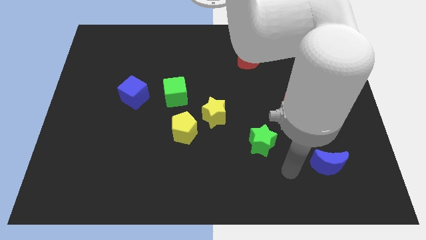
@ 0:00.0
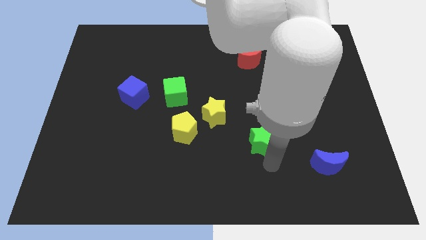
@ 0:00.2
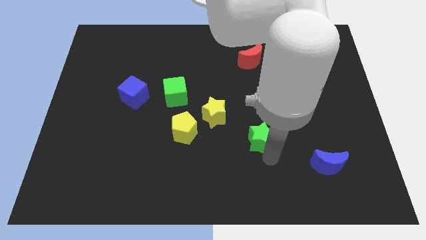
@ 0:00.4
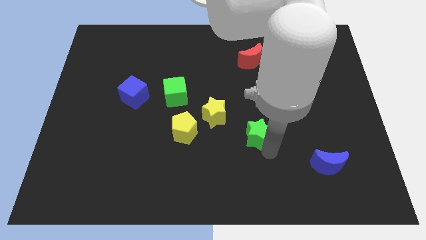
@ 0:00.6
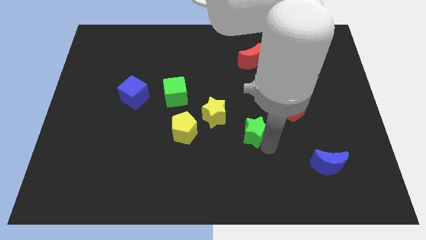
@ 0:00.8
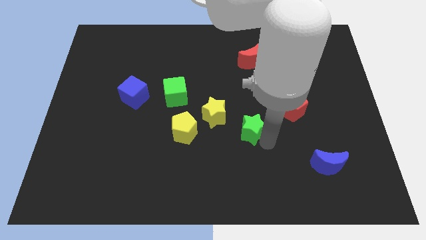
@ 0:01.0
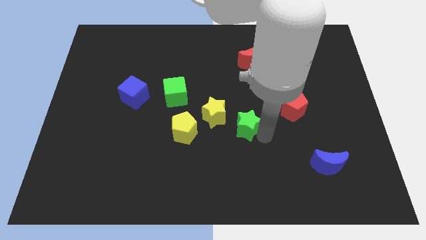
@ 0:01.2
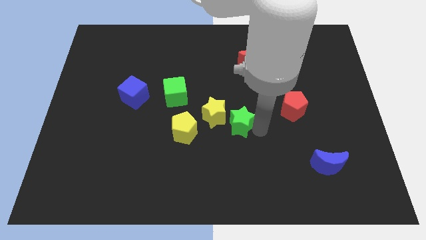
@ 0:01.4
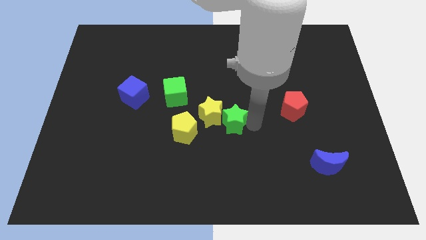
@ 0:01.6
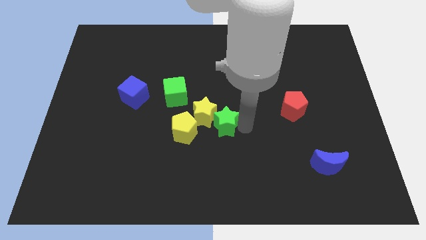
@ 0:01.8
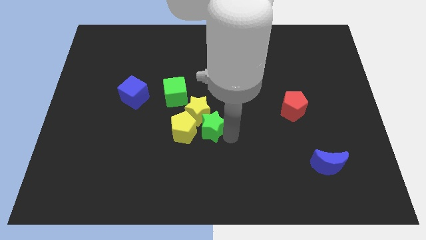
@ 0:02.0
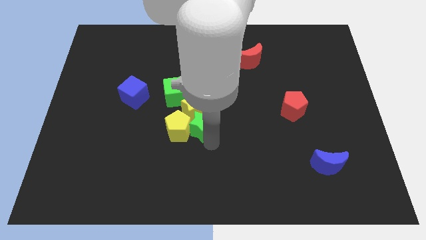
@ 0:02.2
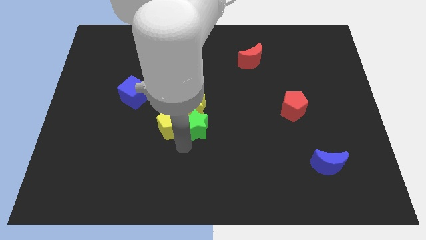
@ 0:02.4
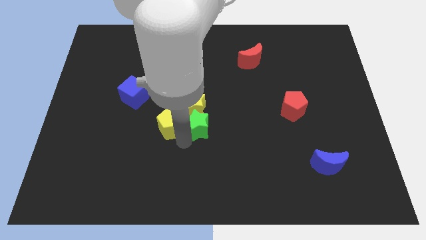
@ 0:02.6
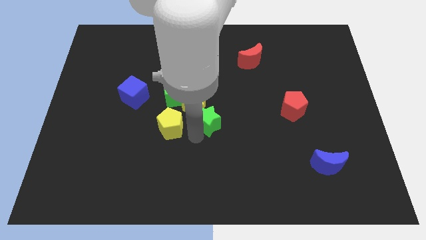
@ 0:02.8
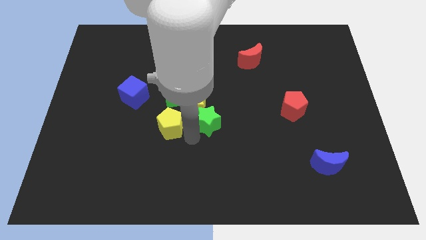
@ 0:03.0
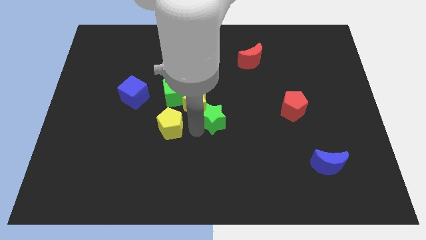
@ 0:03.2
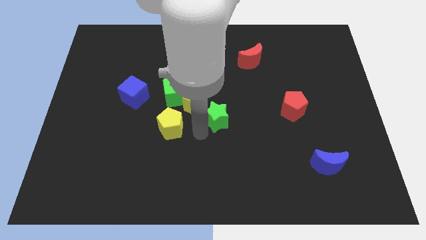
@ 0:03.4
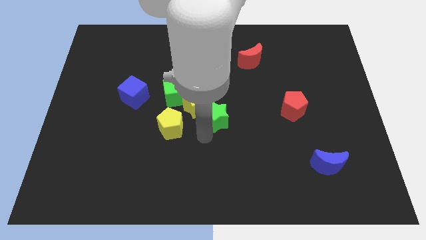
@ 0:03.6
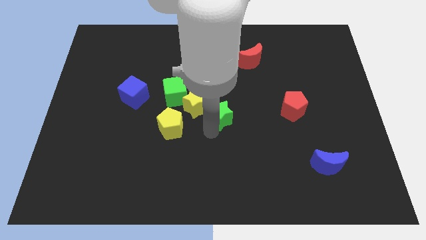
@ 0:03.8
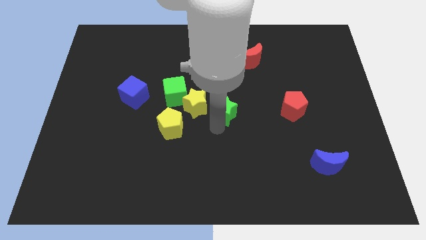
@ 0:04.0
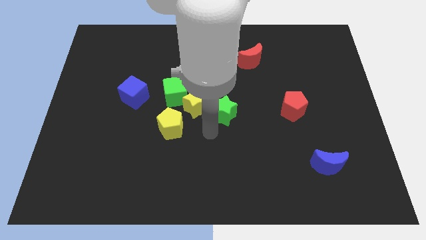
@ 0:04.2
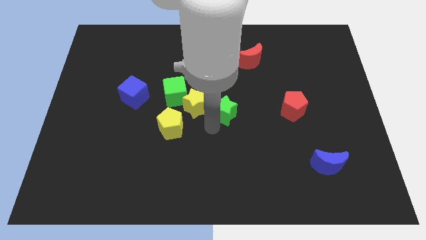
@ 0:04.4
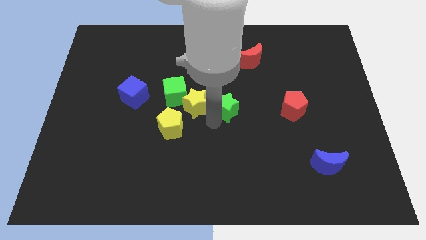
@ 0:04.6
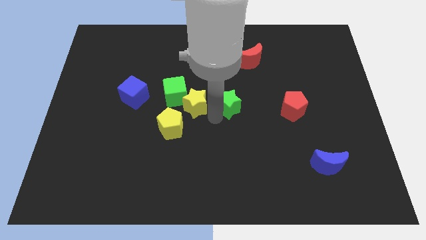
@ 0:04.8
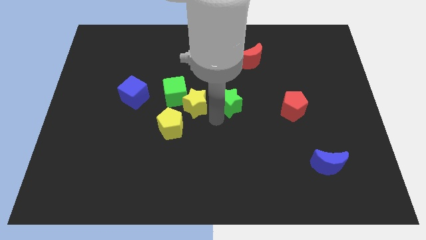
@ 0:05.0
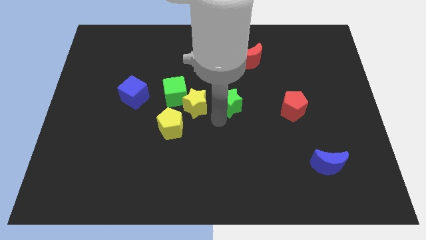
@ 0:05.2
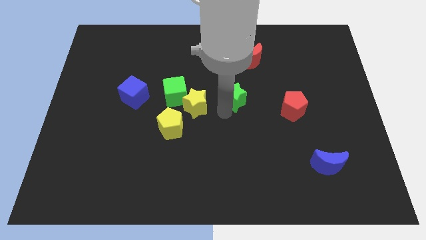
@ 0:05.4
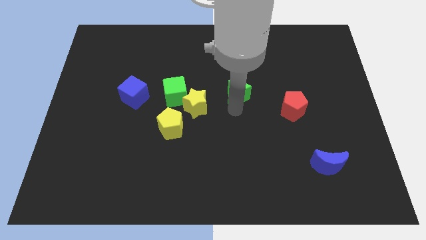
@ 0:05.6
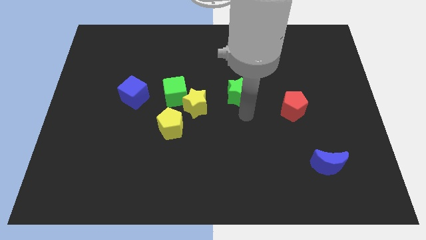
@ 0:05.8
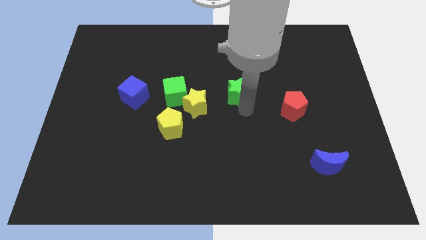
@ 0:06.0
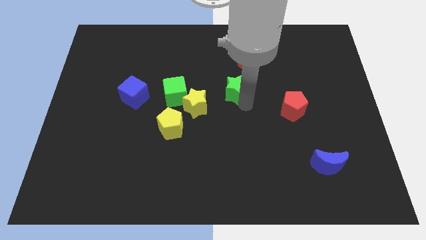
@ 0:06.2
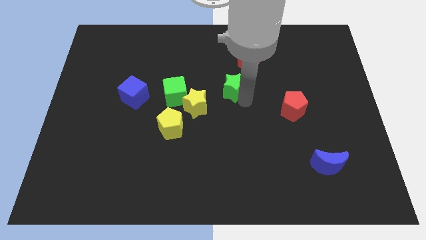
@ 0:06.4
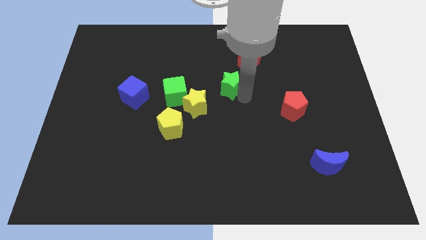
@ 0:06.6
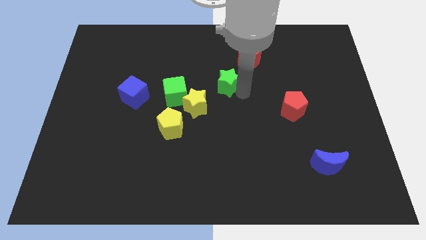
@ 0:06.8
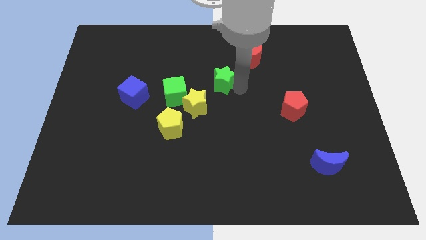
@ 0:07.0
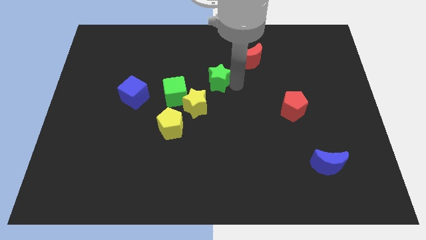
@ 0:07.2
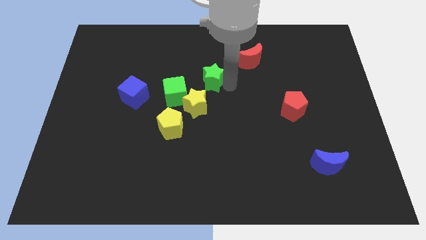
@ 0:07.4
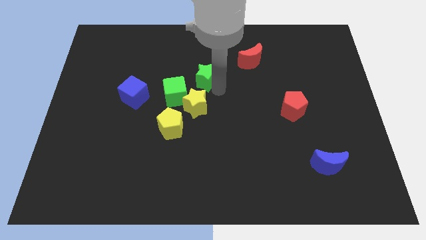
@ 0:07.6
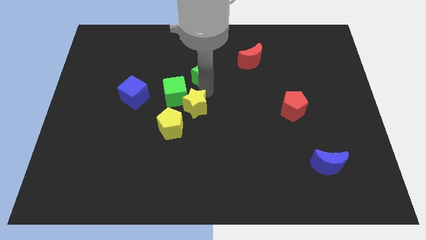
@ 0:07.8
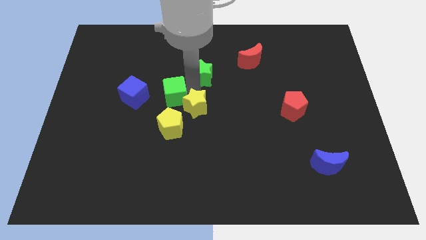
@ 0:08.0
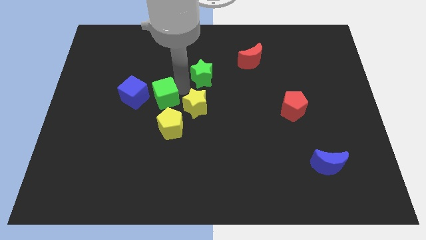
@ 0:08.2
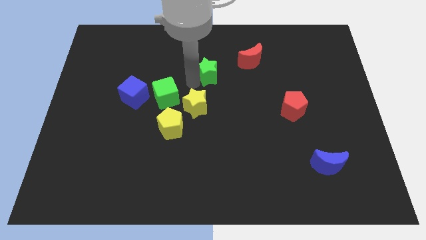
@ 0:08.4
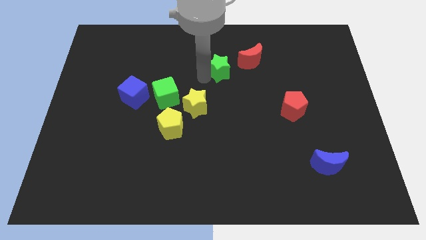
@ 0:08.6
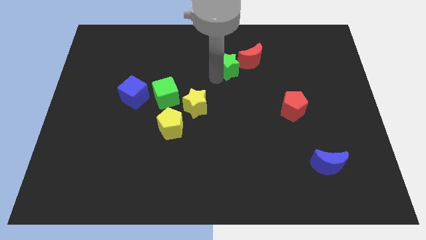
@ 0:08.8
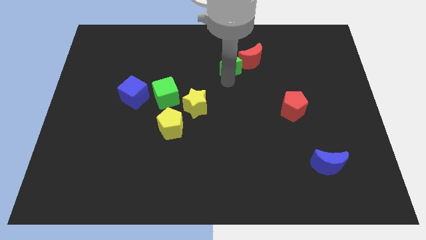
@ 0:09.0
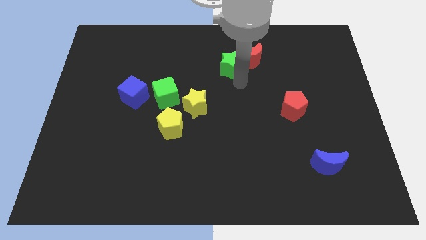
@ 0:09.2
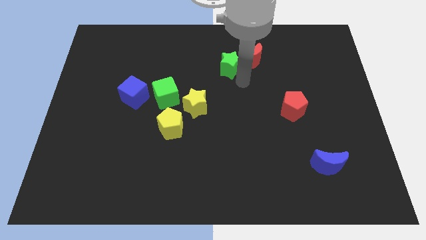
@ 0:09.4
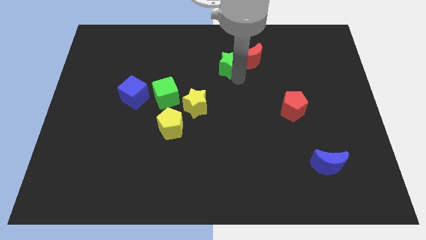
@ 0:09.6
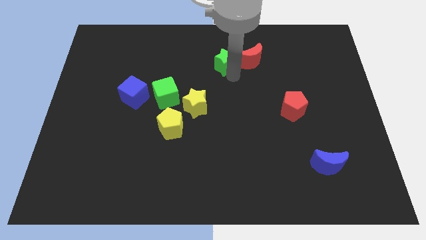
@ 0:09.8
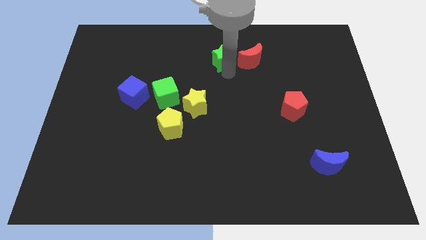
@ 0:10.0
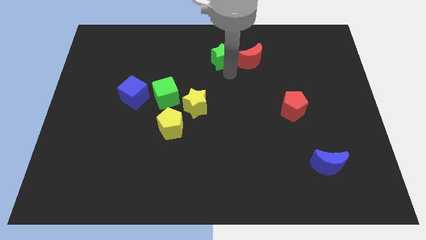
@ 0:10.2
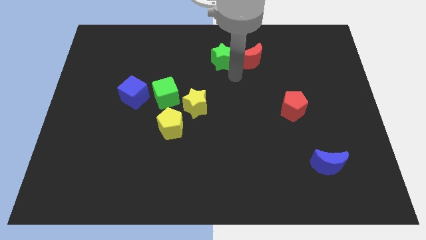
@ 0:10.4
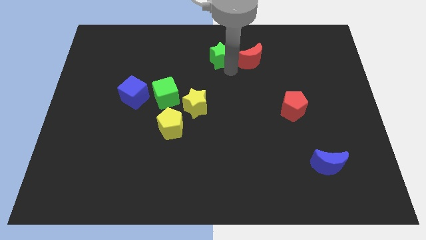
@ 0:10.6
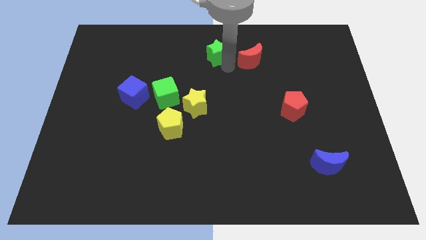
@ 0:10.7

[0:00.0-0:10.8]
slide the green star to the top side
